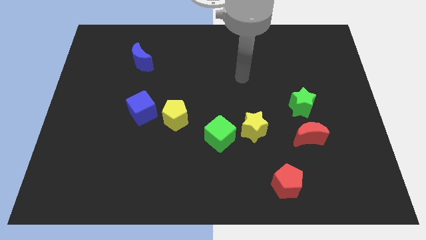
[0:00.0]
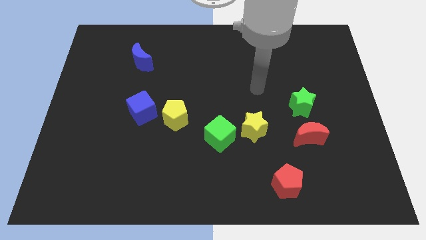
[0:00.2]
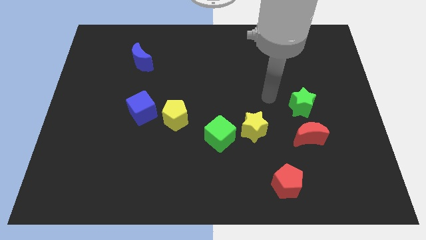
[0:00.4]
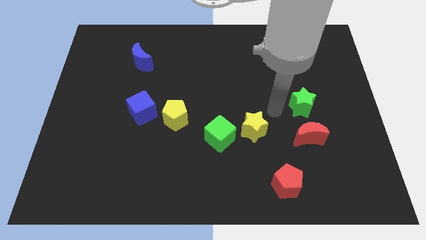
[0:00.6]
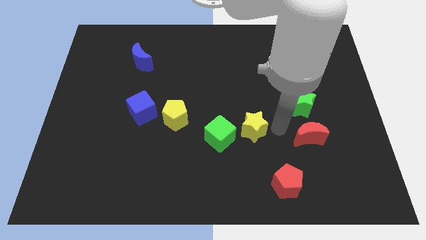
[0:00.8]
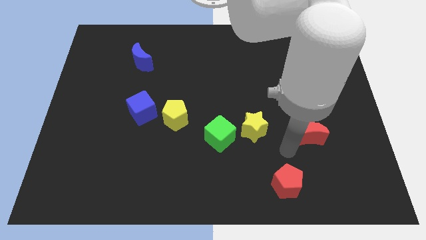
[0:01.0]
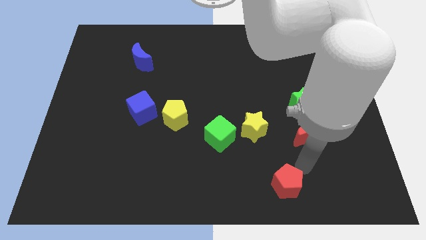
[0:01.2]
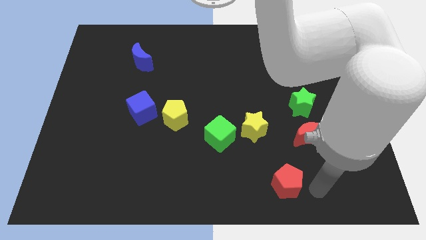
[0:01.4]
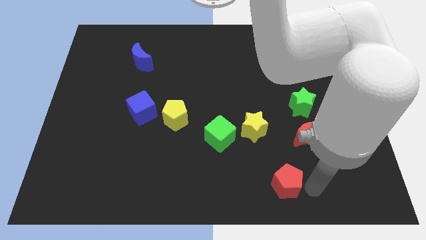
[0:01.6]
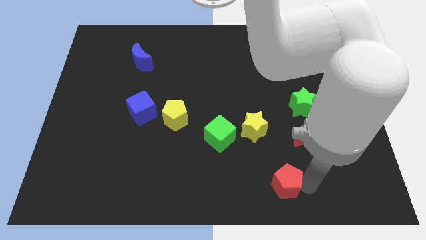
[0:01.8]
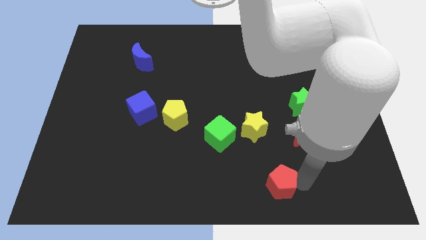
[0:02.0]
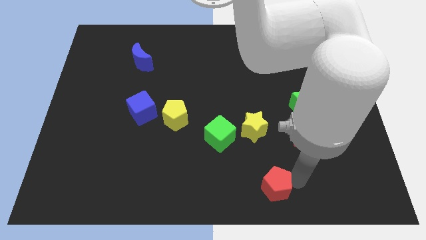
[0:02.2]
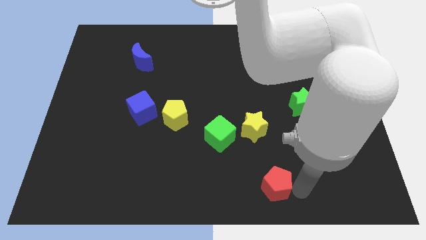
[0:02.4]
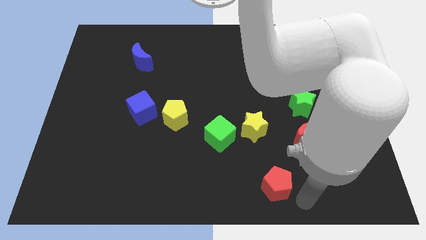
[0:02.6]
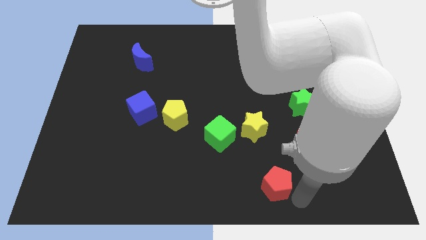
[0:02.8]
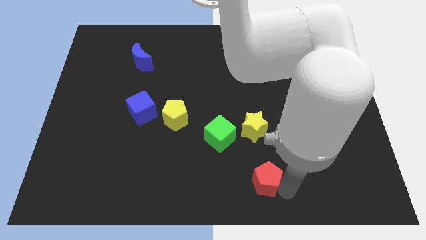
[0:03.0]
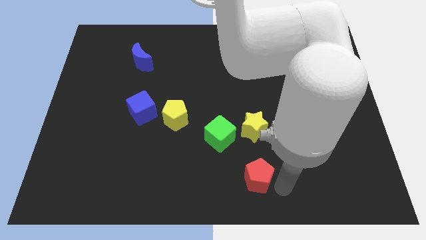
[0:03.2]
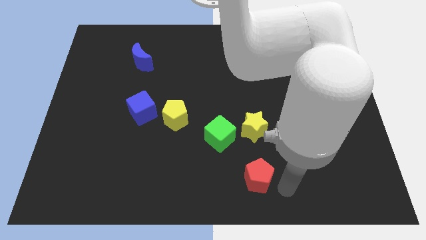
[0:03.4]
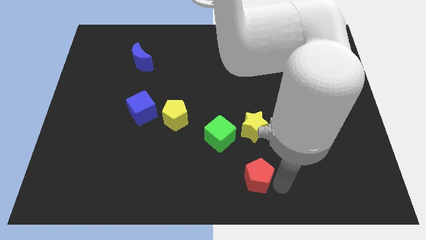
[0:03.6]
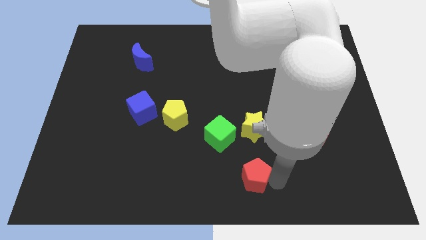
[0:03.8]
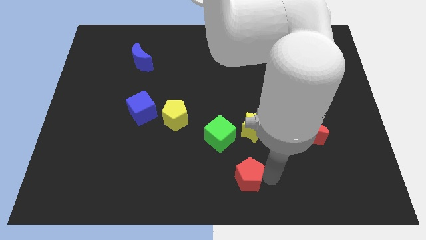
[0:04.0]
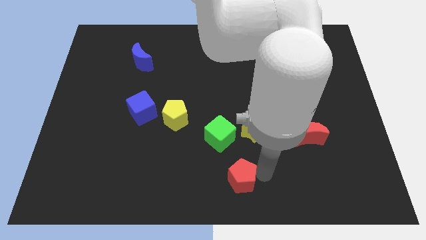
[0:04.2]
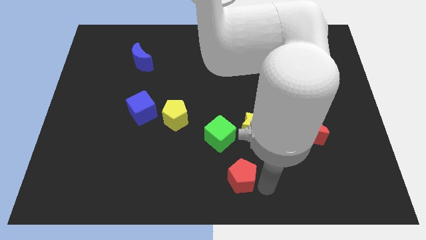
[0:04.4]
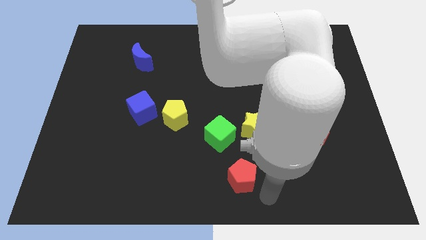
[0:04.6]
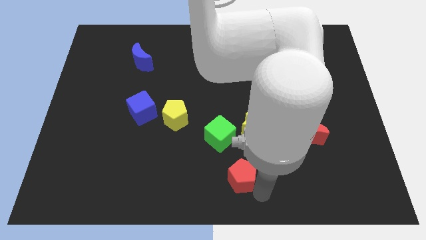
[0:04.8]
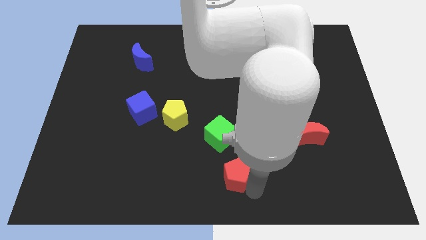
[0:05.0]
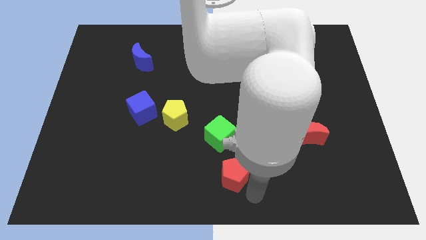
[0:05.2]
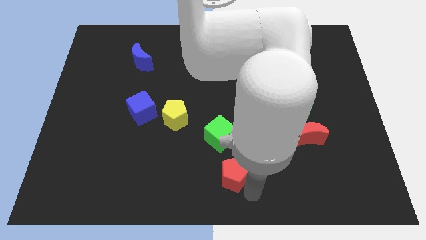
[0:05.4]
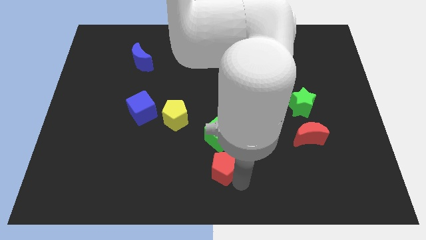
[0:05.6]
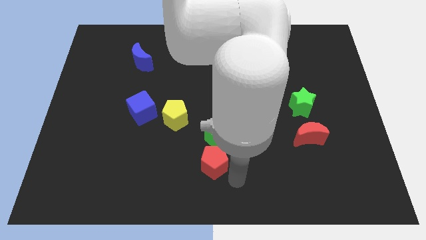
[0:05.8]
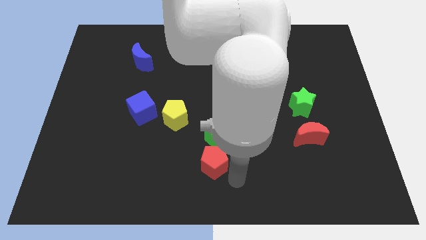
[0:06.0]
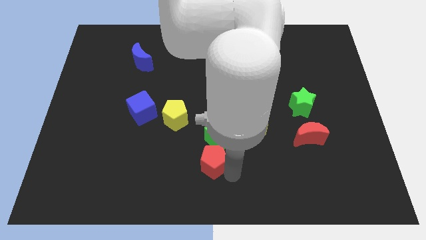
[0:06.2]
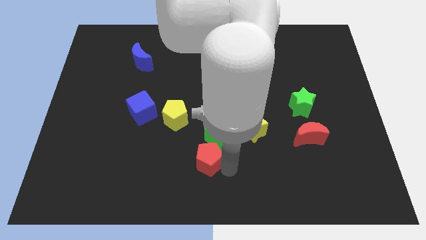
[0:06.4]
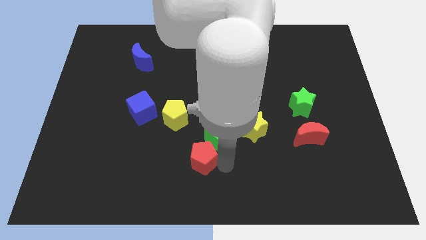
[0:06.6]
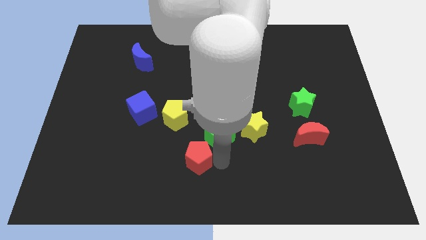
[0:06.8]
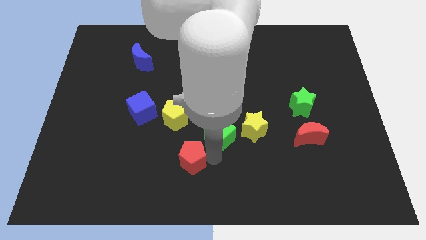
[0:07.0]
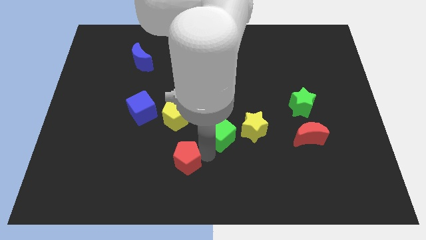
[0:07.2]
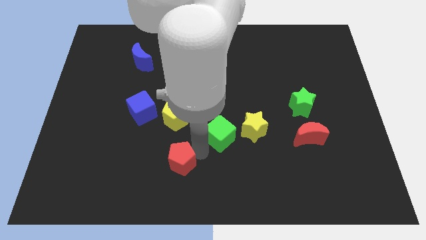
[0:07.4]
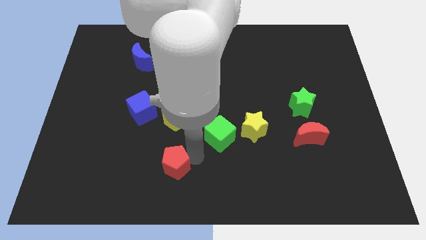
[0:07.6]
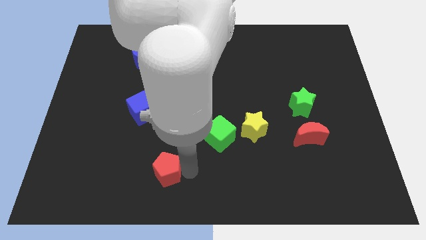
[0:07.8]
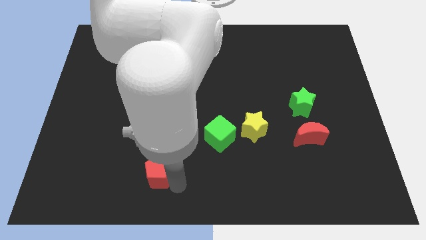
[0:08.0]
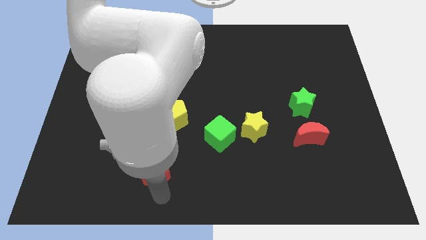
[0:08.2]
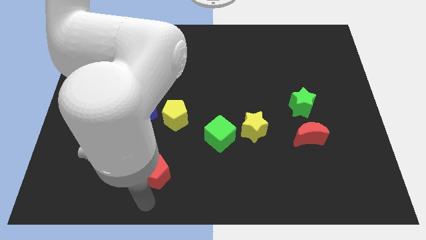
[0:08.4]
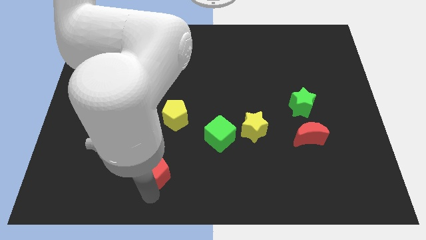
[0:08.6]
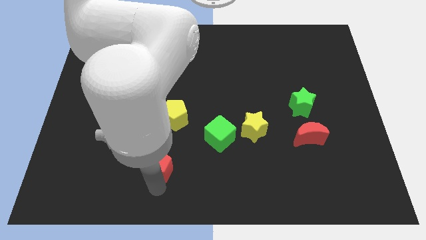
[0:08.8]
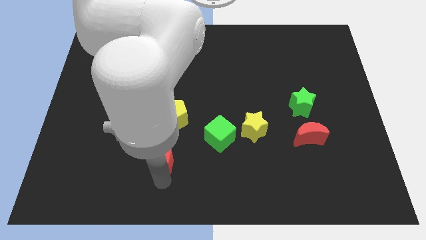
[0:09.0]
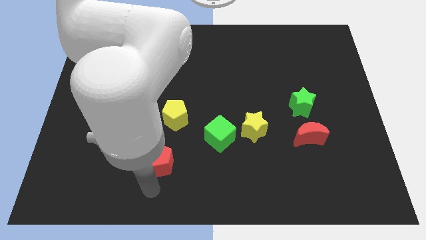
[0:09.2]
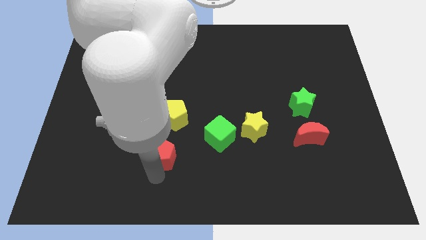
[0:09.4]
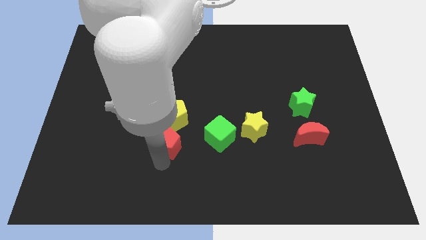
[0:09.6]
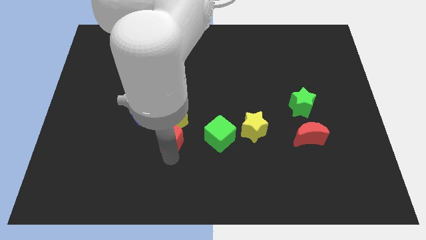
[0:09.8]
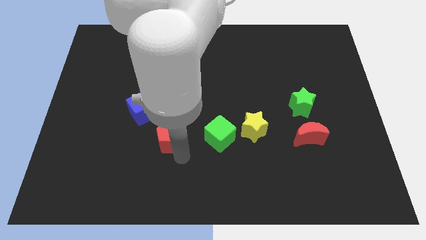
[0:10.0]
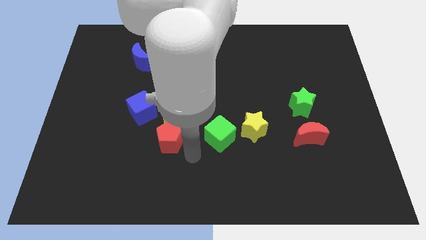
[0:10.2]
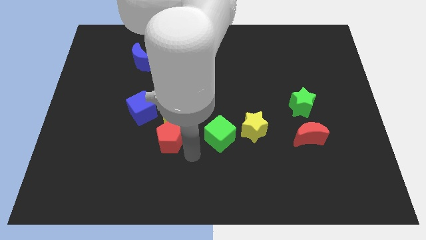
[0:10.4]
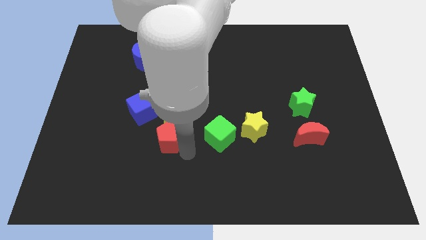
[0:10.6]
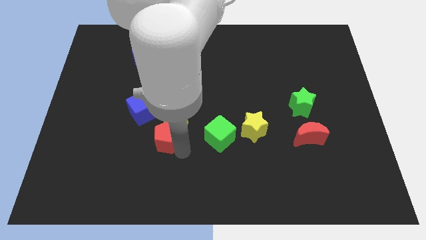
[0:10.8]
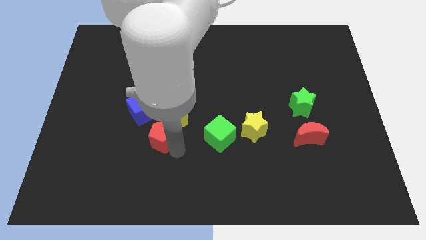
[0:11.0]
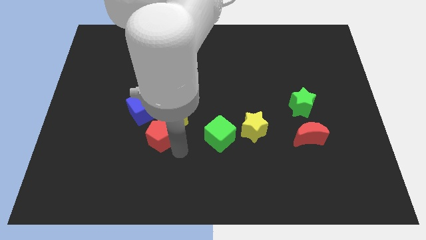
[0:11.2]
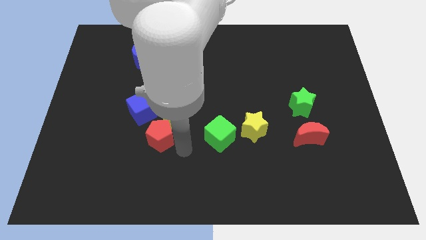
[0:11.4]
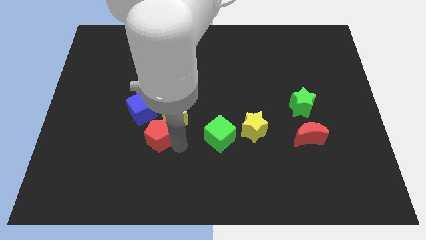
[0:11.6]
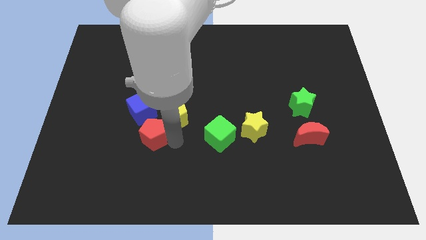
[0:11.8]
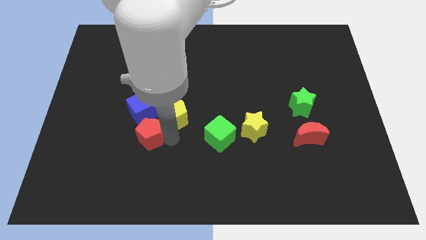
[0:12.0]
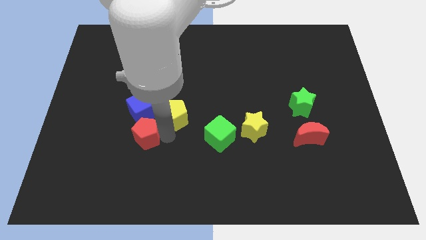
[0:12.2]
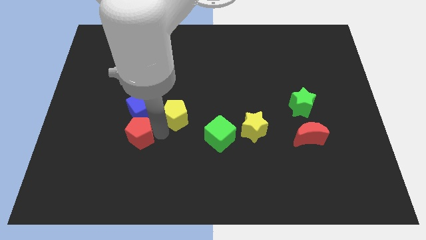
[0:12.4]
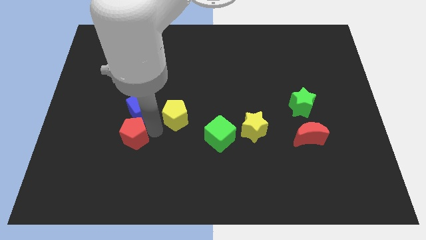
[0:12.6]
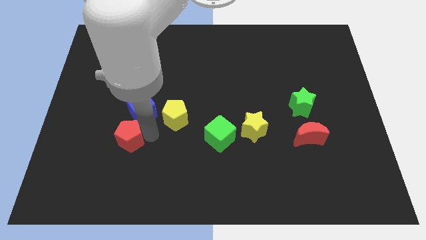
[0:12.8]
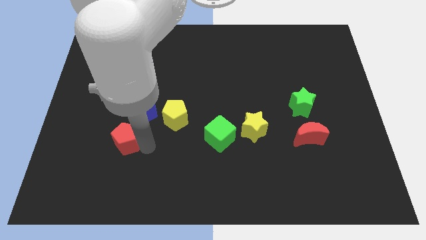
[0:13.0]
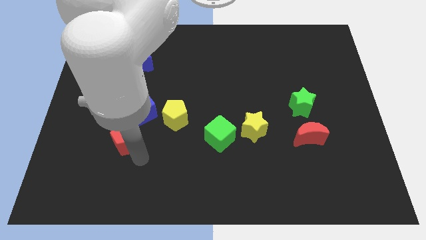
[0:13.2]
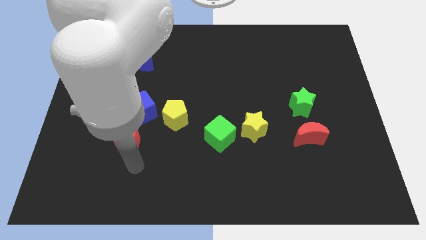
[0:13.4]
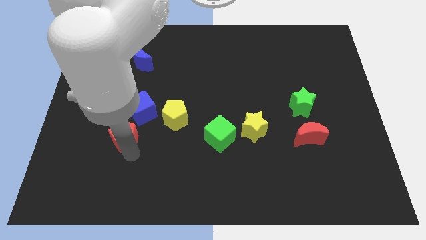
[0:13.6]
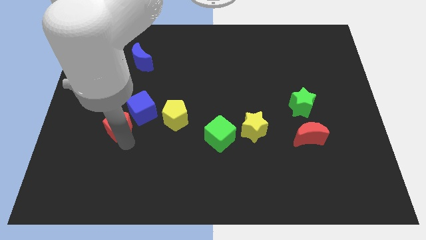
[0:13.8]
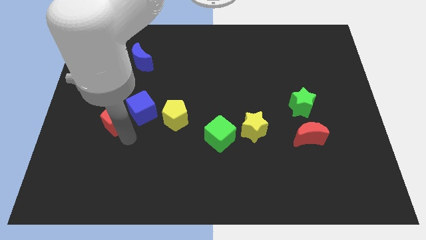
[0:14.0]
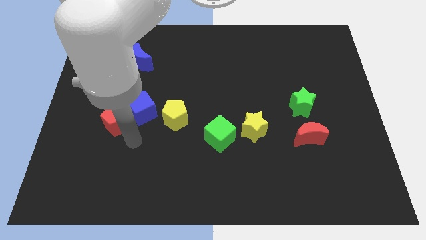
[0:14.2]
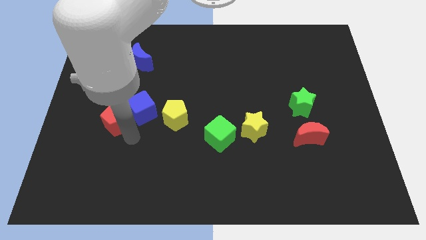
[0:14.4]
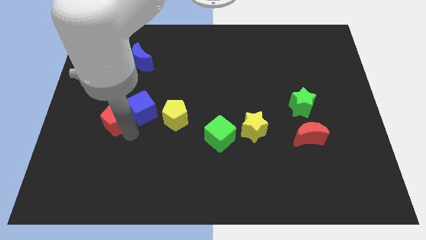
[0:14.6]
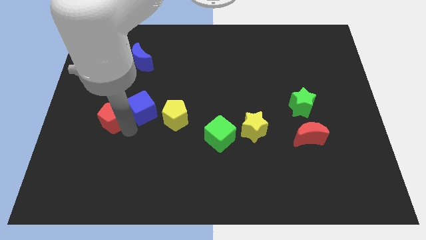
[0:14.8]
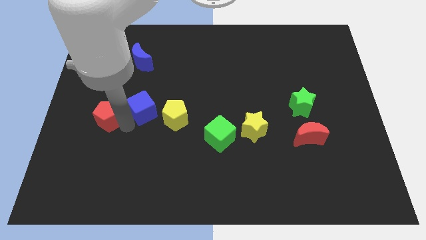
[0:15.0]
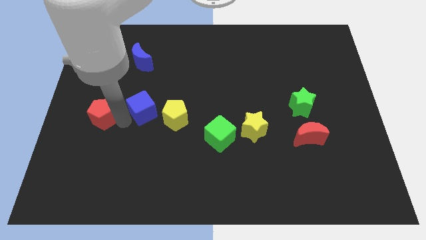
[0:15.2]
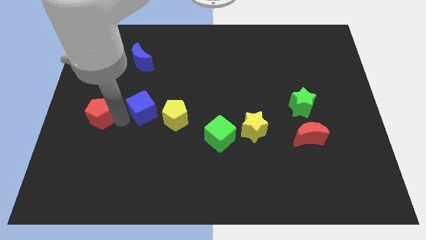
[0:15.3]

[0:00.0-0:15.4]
put the red pentagon to the left side
